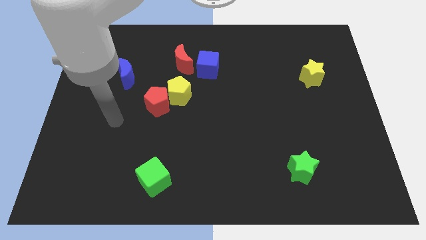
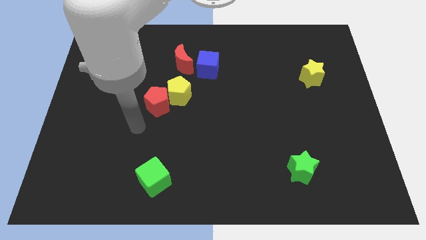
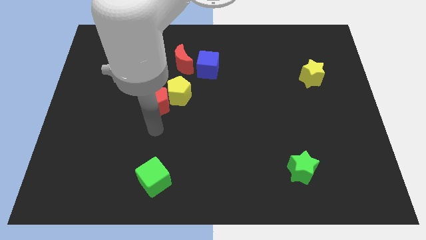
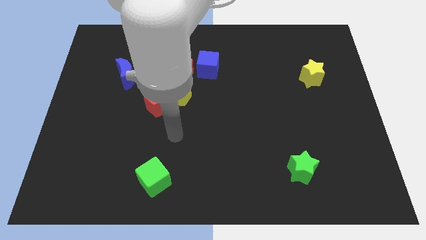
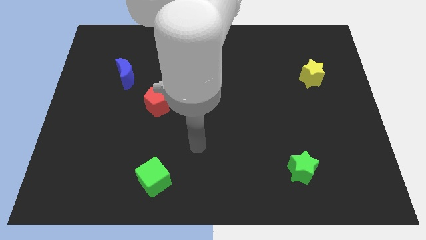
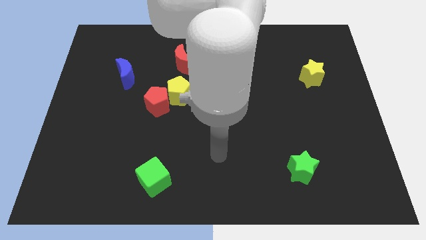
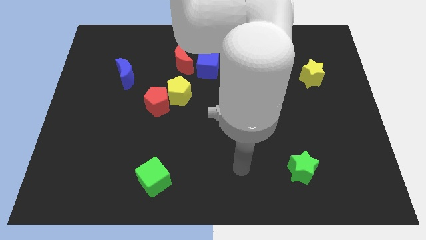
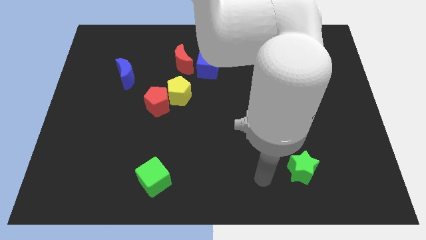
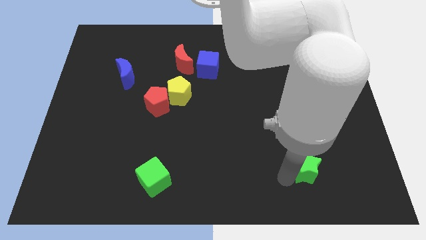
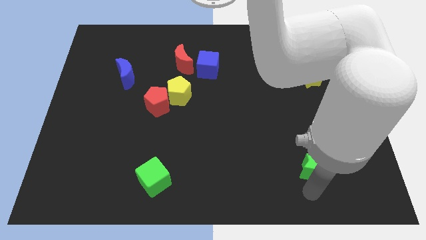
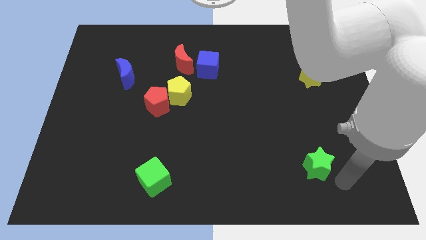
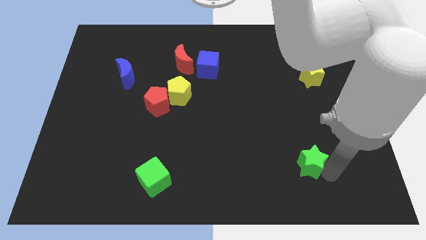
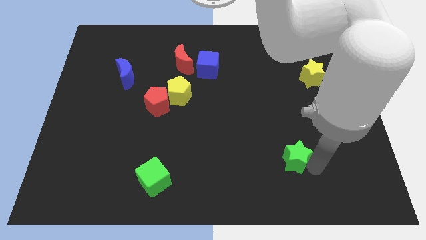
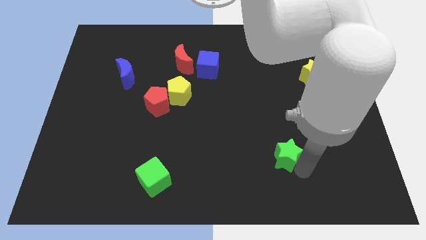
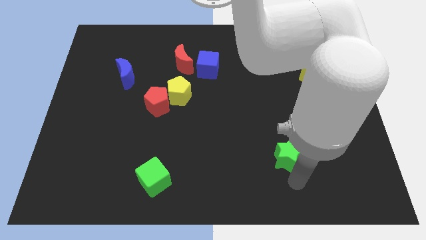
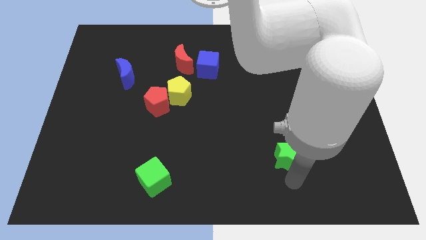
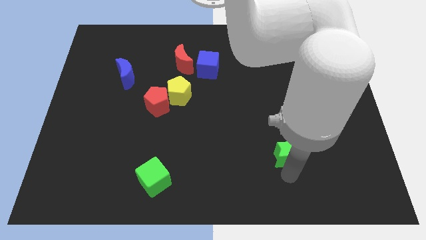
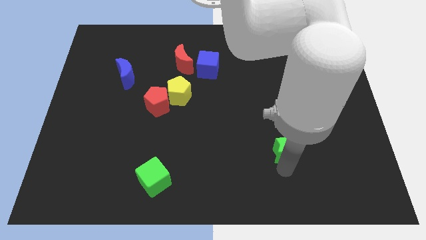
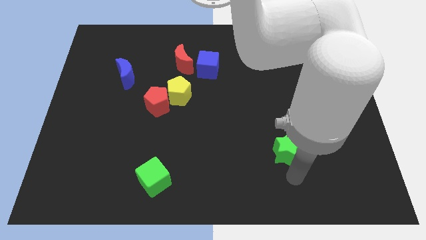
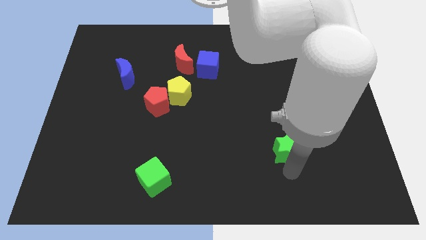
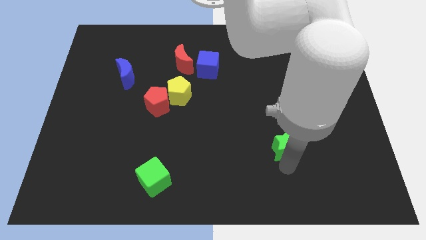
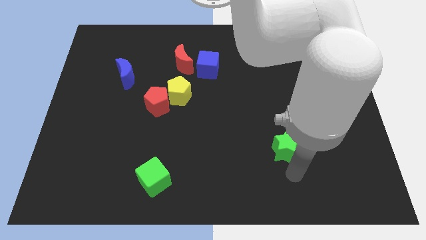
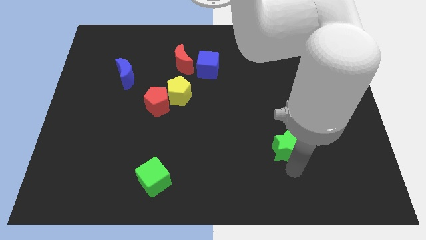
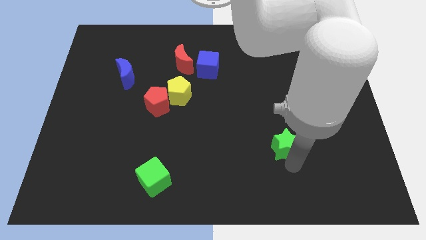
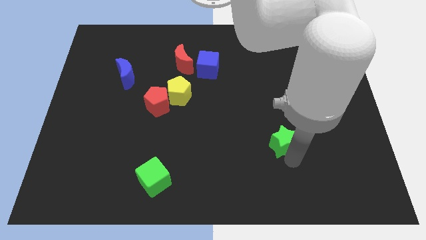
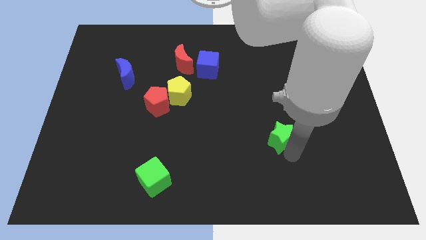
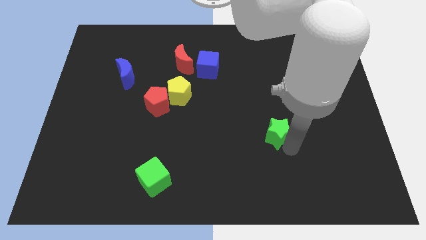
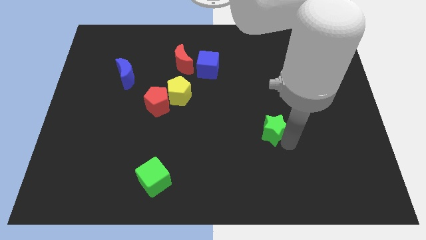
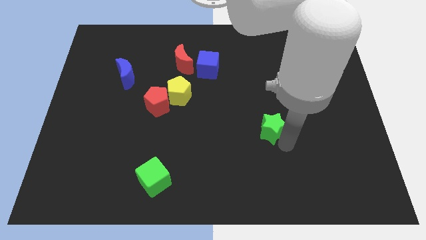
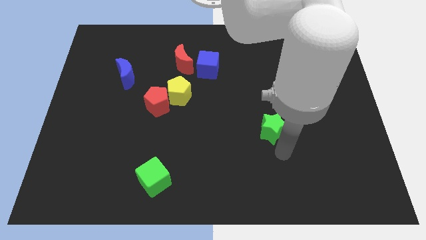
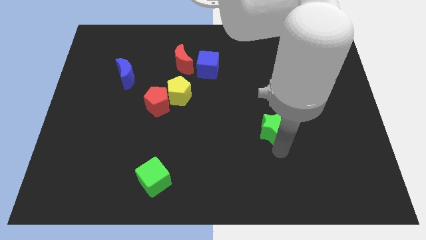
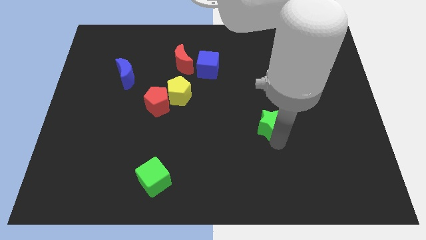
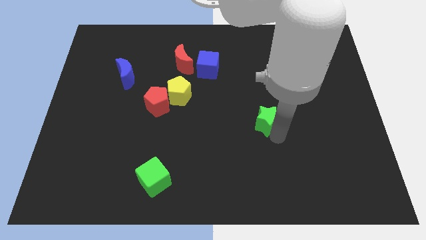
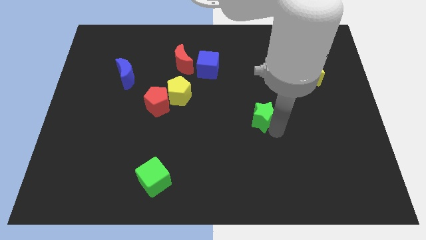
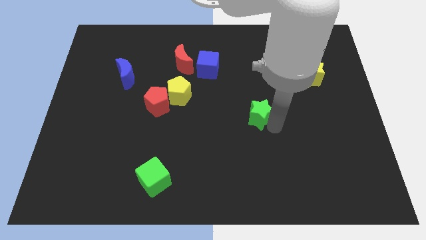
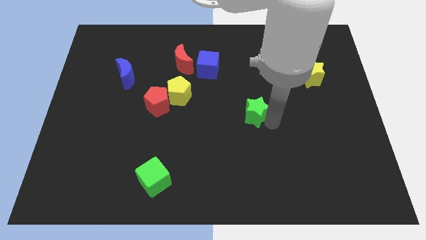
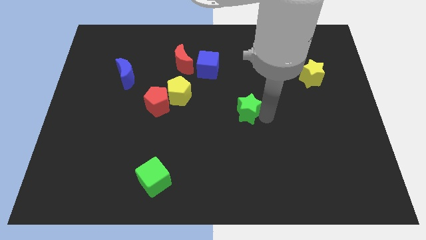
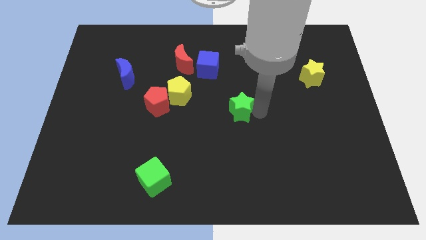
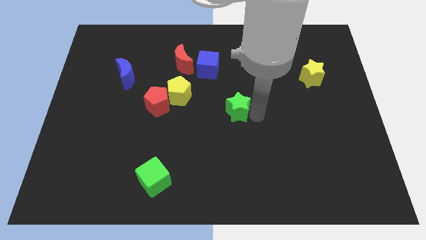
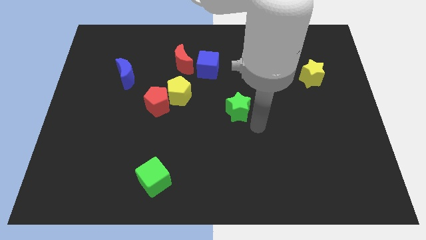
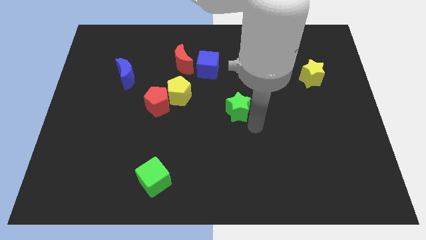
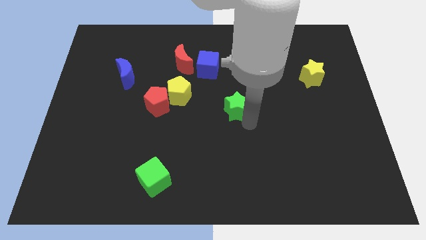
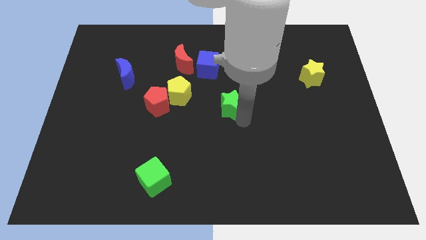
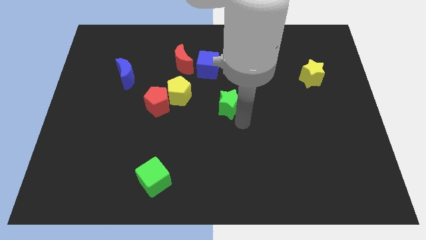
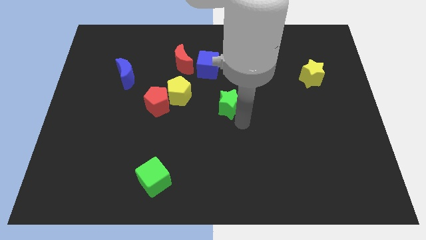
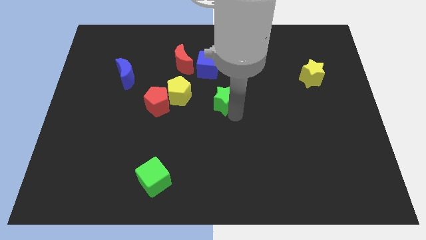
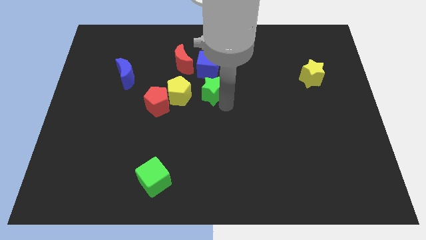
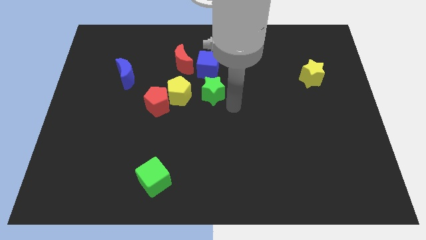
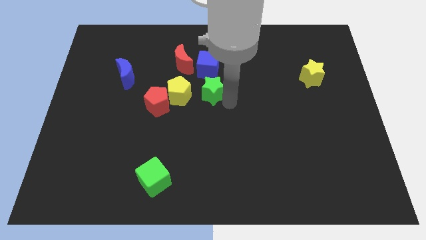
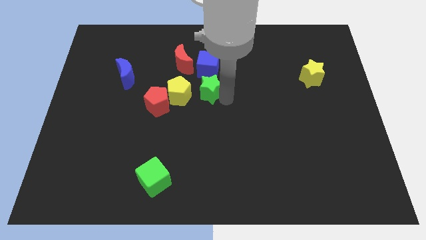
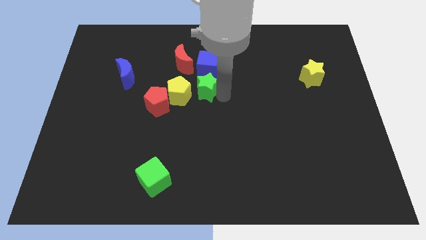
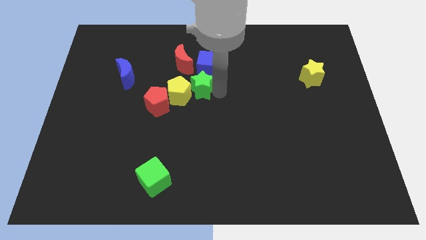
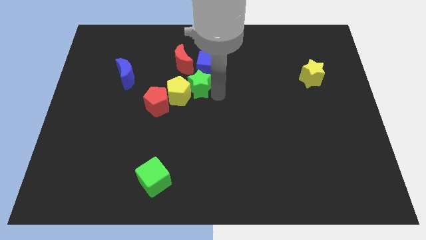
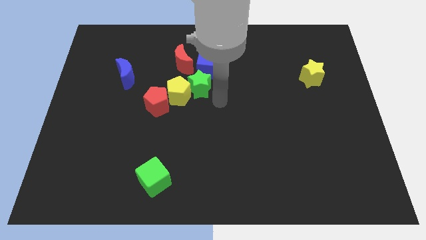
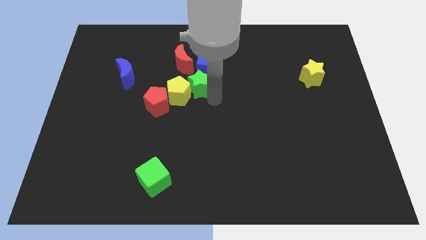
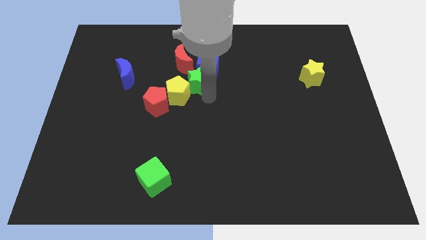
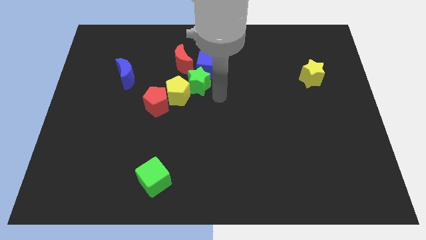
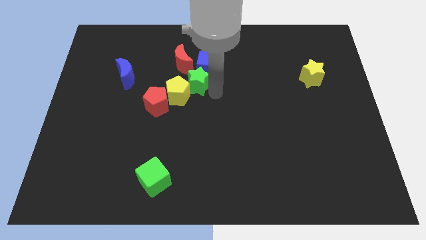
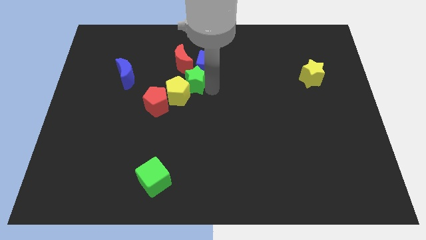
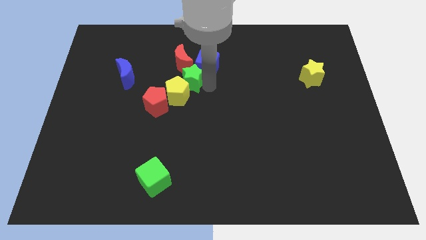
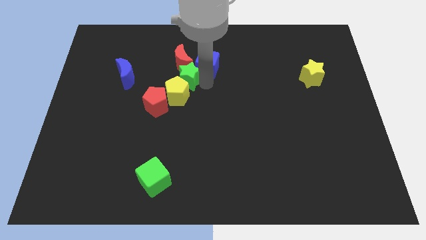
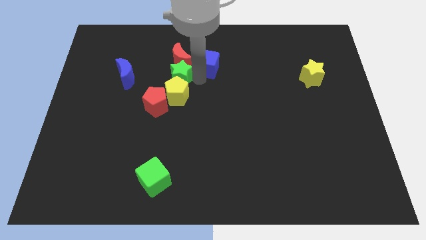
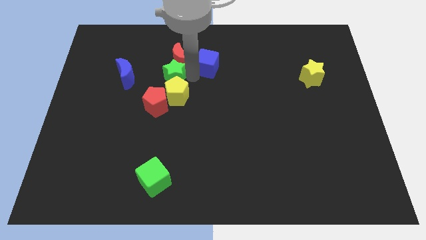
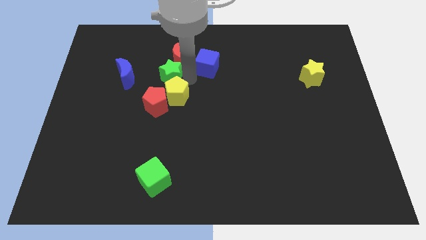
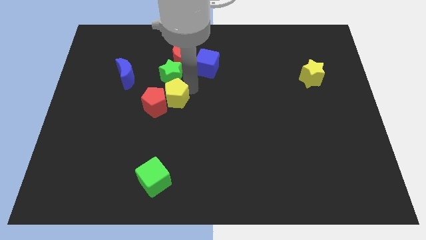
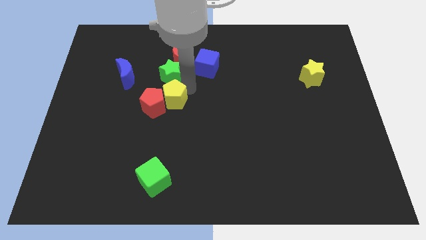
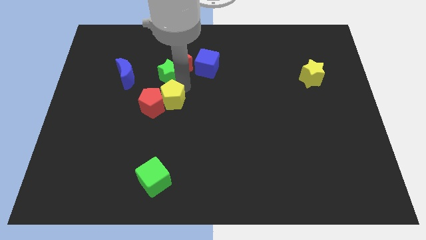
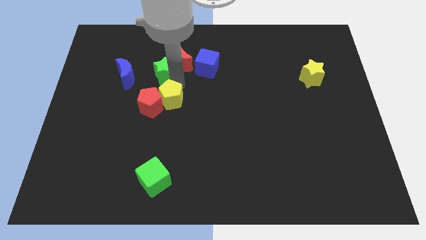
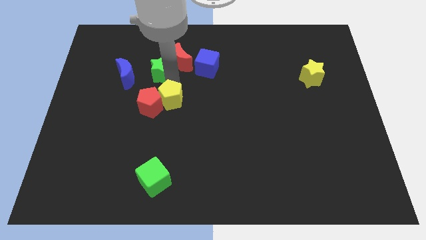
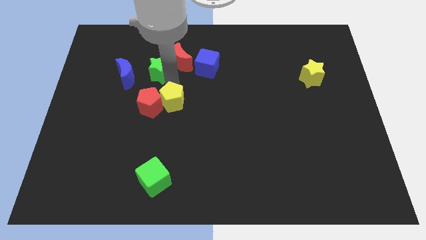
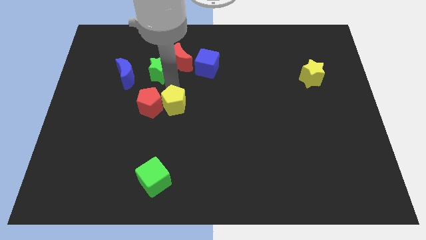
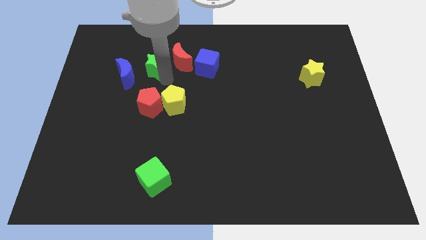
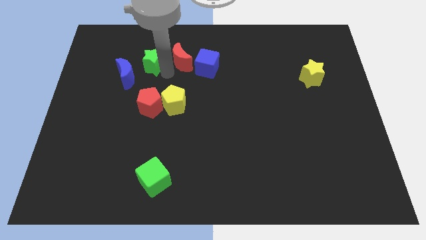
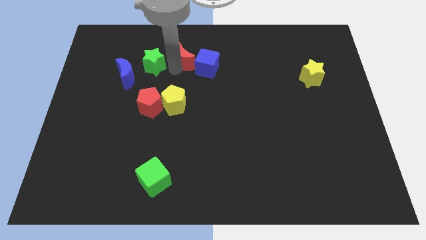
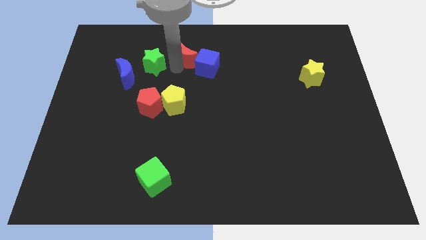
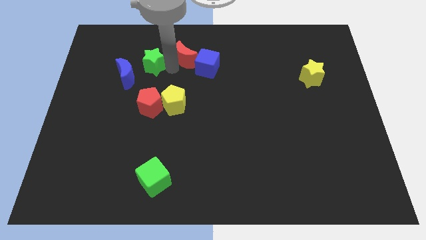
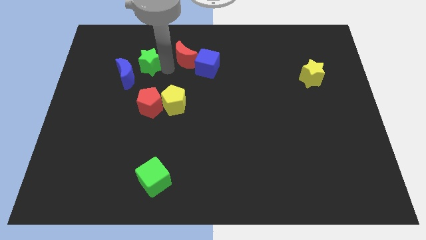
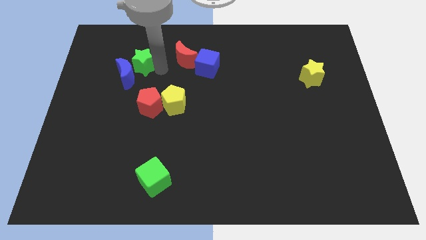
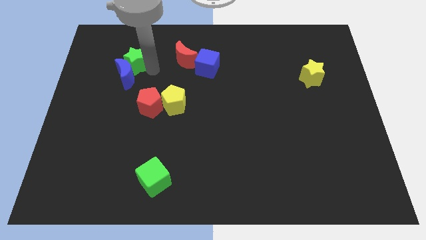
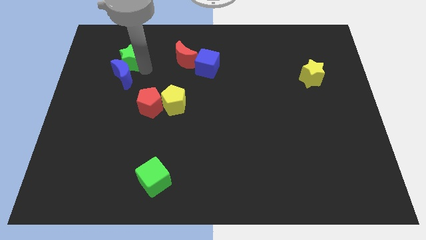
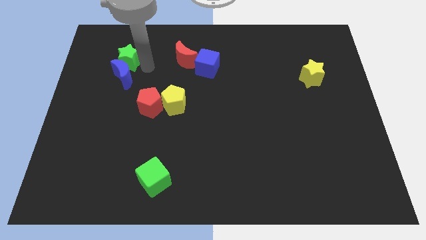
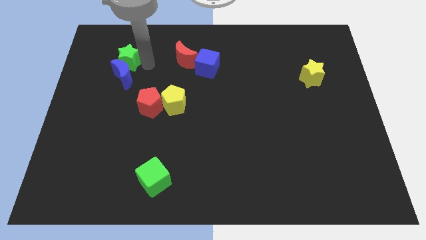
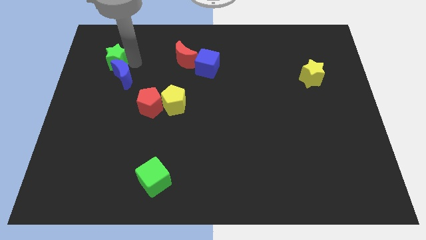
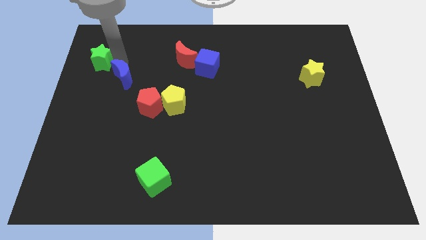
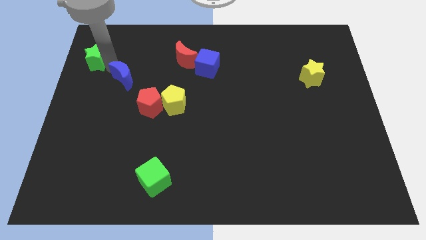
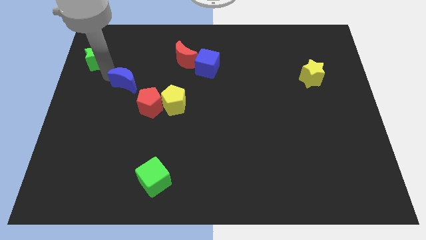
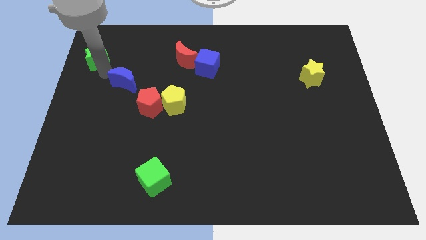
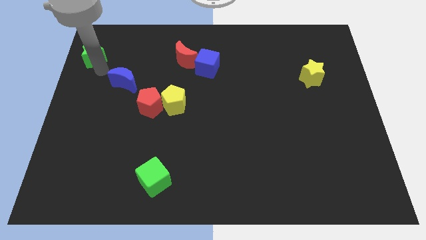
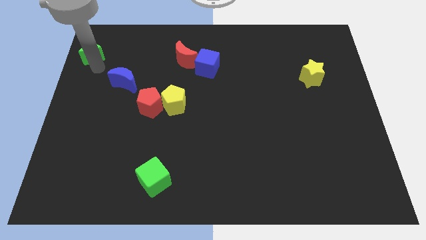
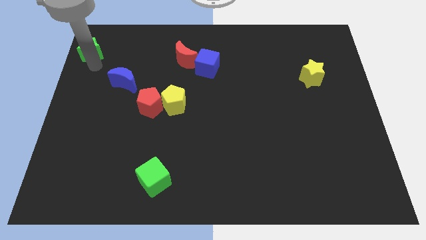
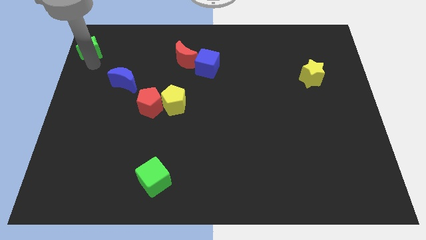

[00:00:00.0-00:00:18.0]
put the green star to the upper left corner
